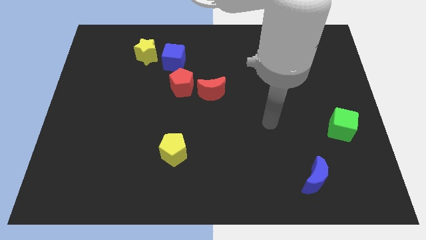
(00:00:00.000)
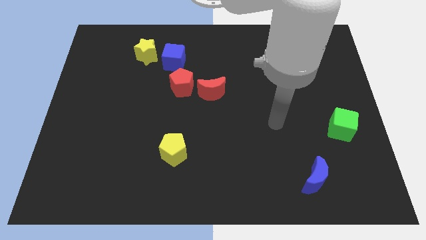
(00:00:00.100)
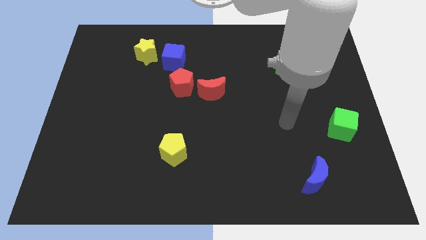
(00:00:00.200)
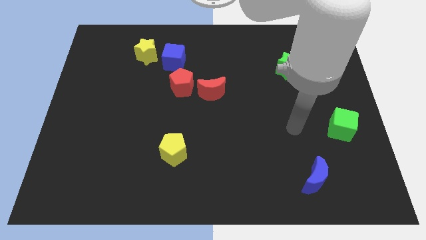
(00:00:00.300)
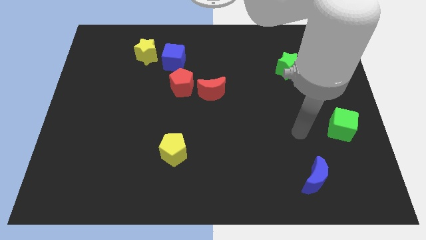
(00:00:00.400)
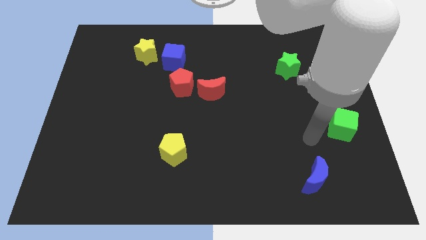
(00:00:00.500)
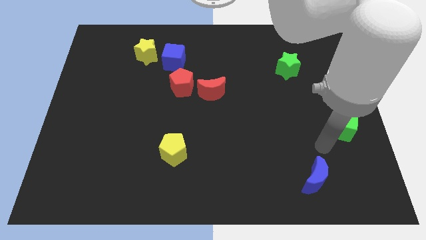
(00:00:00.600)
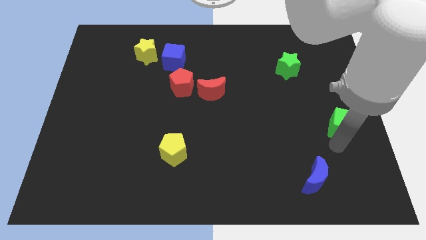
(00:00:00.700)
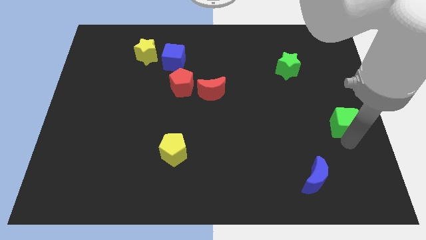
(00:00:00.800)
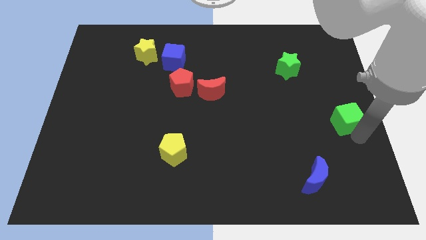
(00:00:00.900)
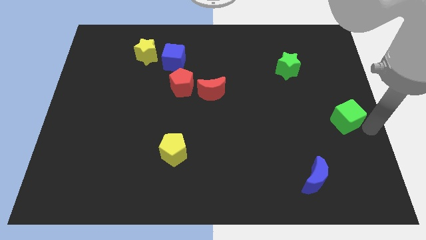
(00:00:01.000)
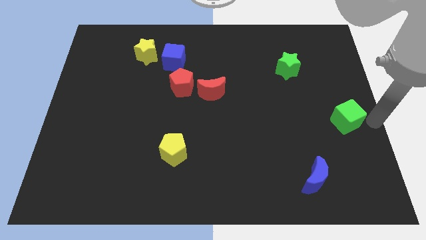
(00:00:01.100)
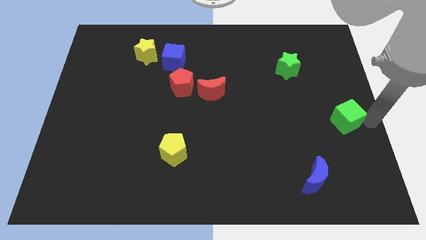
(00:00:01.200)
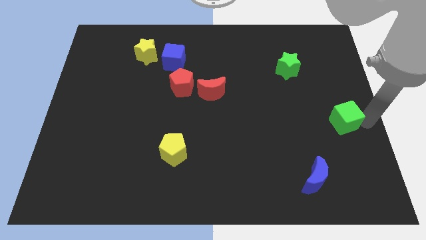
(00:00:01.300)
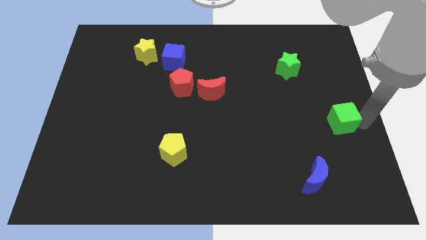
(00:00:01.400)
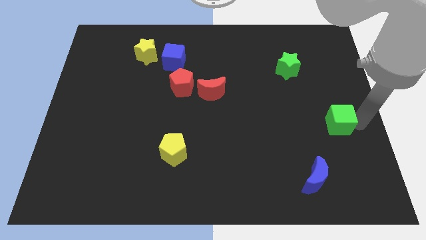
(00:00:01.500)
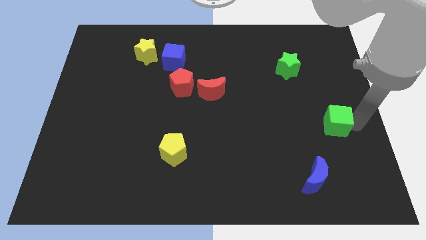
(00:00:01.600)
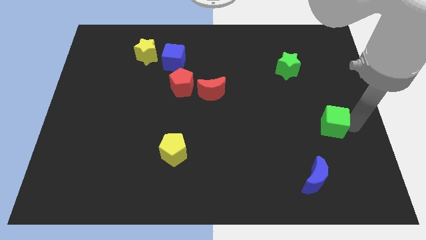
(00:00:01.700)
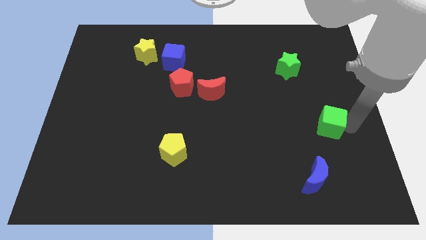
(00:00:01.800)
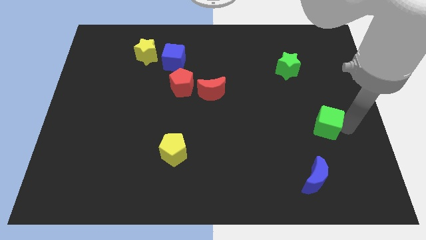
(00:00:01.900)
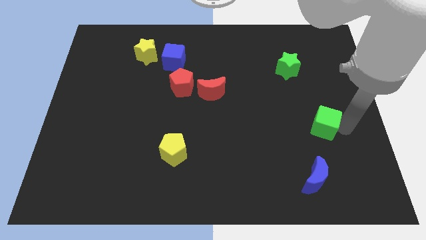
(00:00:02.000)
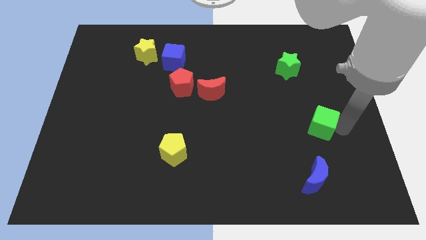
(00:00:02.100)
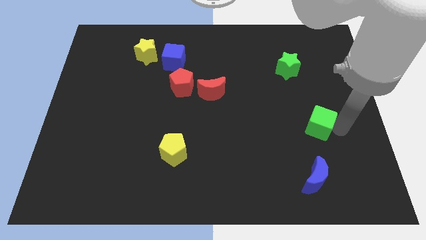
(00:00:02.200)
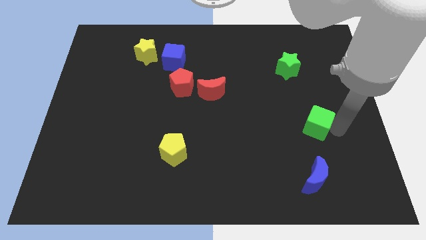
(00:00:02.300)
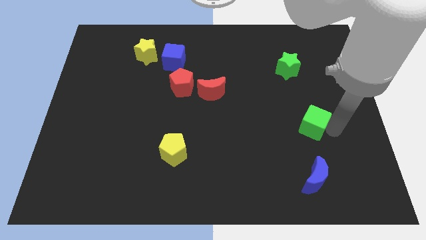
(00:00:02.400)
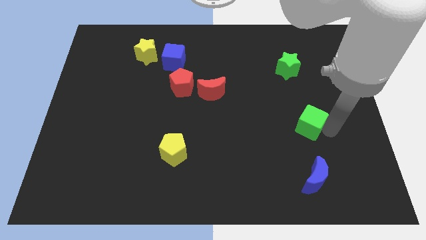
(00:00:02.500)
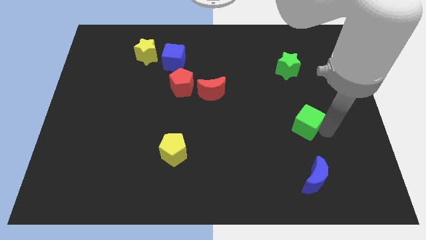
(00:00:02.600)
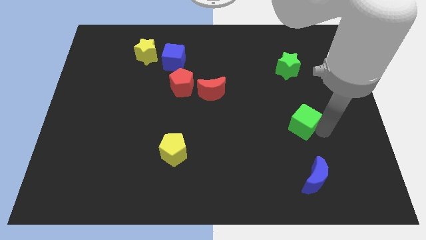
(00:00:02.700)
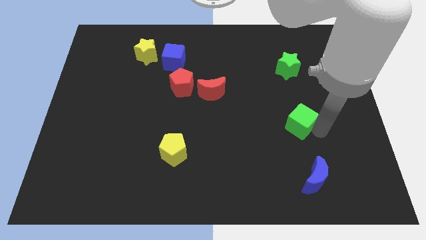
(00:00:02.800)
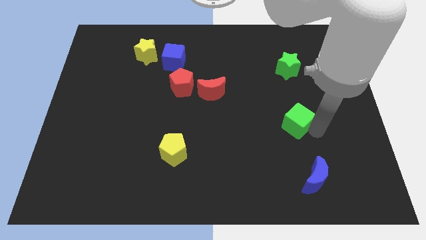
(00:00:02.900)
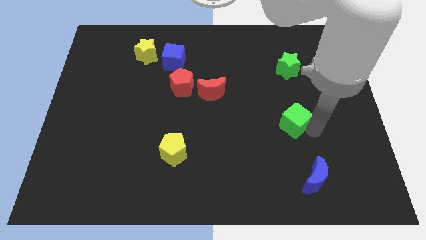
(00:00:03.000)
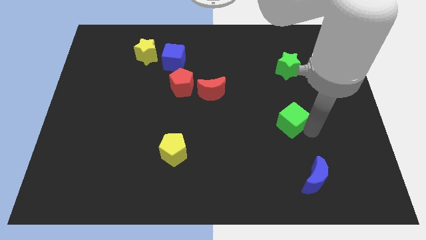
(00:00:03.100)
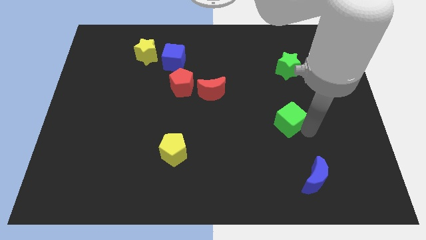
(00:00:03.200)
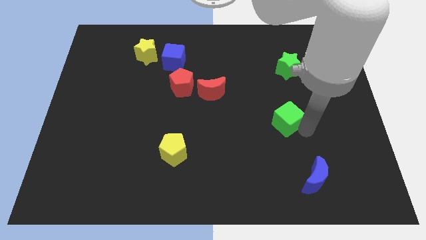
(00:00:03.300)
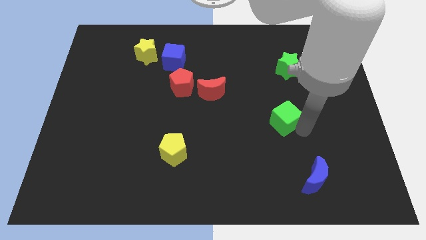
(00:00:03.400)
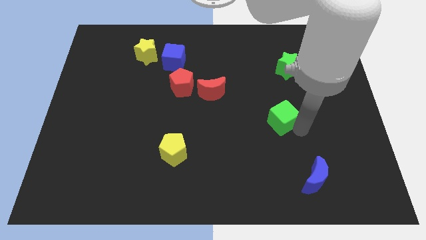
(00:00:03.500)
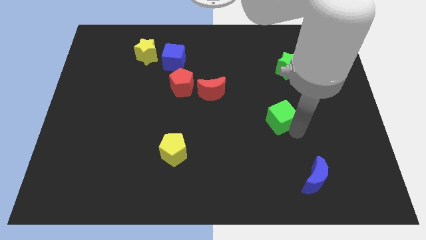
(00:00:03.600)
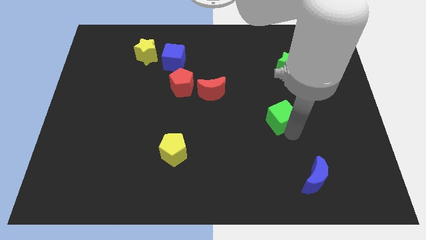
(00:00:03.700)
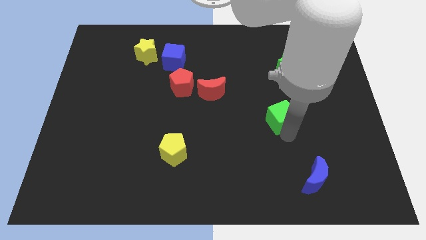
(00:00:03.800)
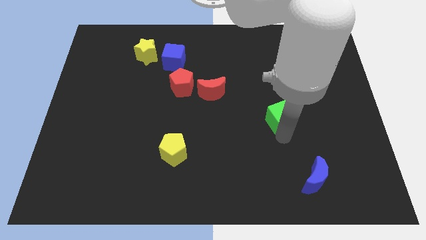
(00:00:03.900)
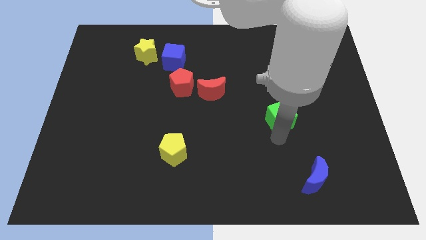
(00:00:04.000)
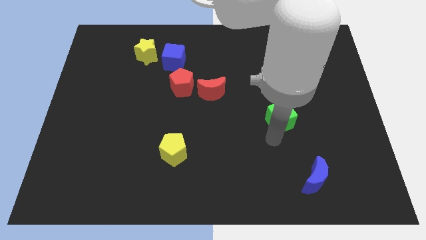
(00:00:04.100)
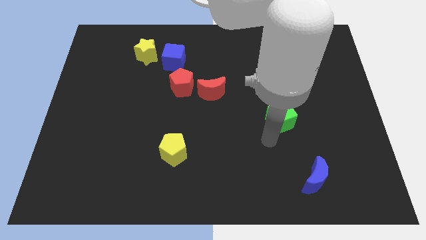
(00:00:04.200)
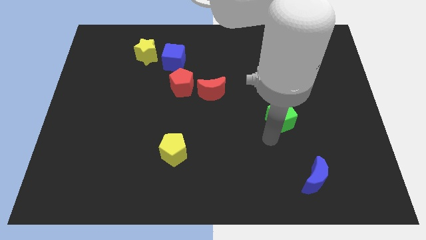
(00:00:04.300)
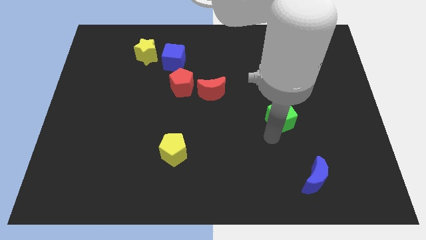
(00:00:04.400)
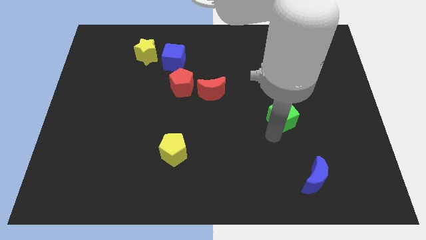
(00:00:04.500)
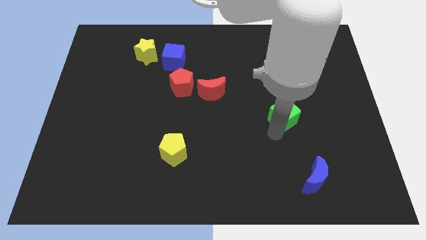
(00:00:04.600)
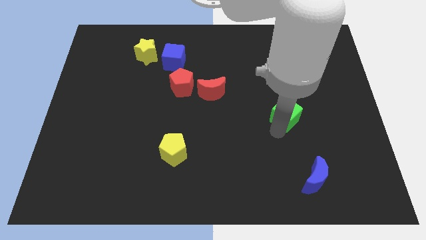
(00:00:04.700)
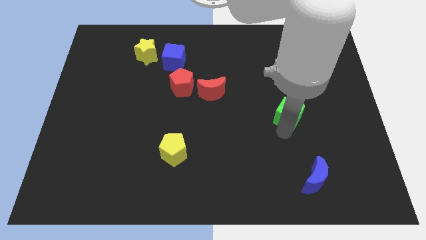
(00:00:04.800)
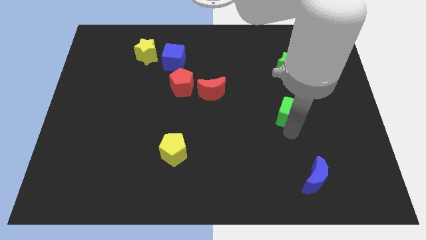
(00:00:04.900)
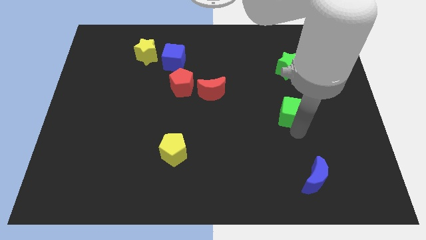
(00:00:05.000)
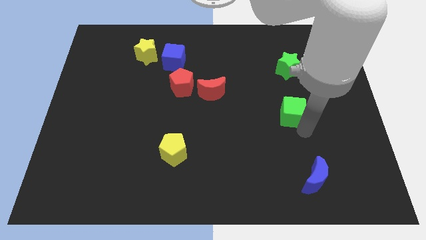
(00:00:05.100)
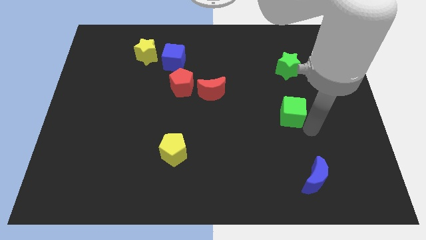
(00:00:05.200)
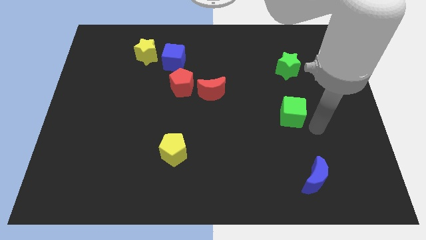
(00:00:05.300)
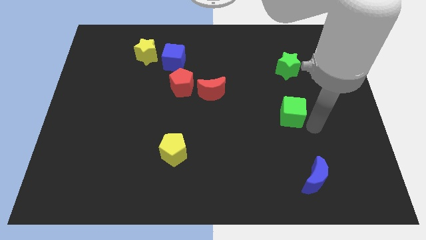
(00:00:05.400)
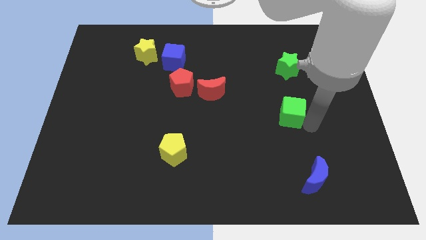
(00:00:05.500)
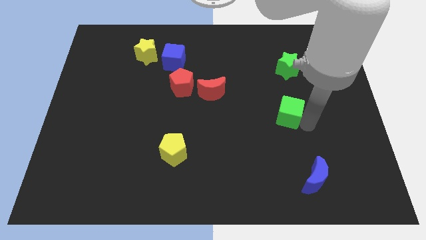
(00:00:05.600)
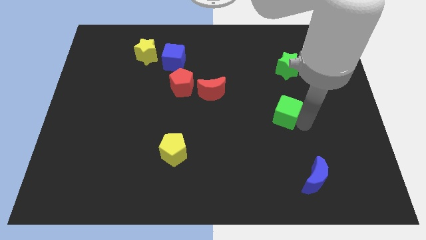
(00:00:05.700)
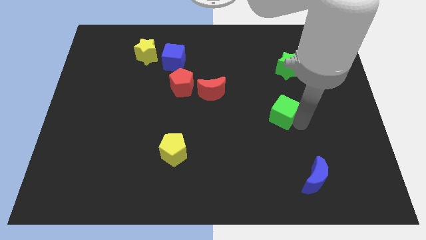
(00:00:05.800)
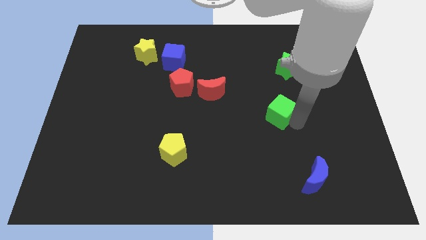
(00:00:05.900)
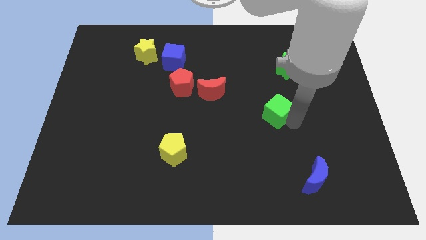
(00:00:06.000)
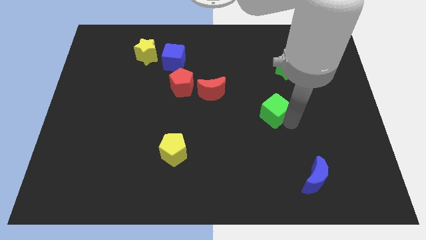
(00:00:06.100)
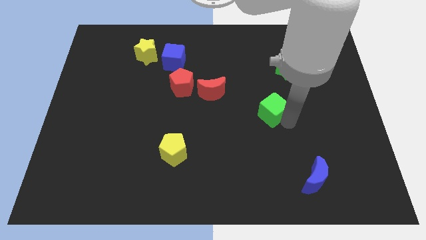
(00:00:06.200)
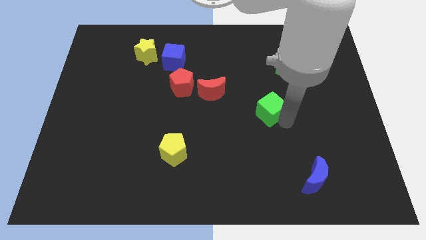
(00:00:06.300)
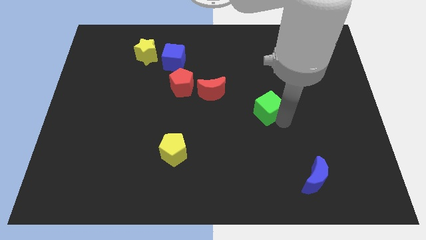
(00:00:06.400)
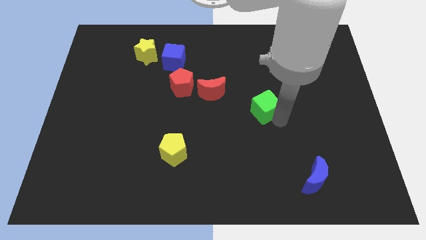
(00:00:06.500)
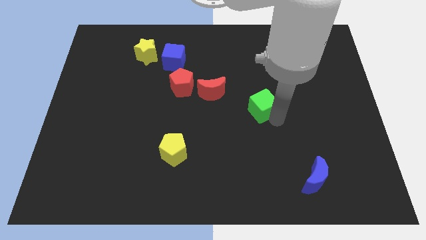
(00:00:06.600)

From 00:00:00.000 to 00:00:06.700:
slide the green cube right of the red moon
